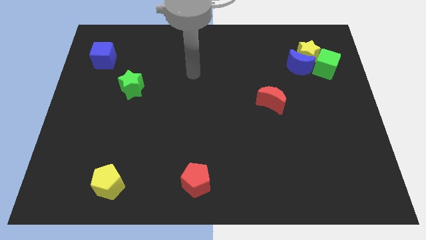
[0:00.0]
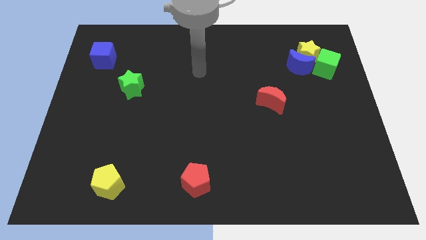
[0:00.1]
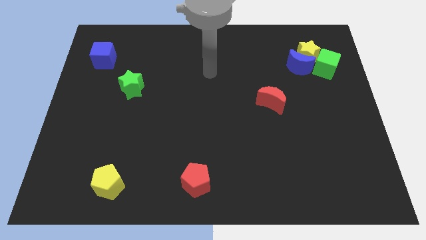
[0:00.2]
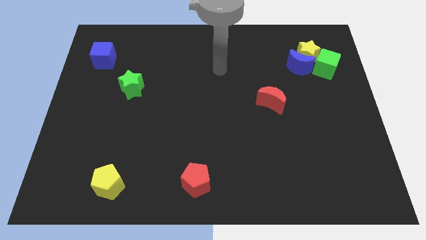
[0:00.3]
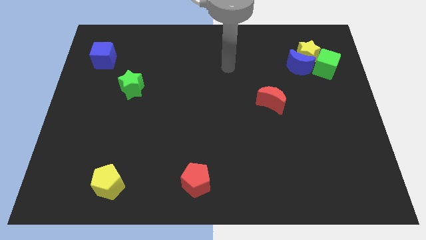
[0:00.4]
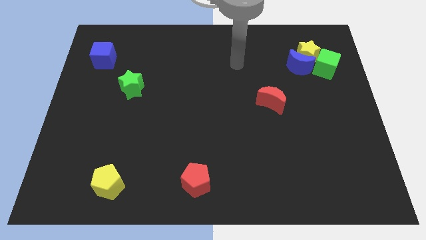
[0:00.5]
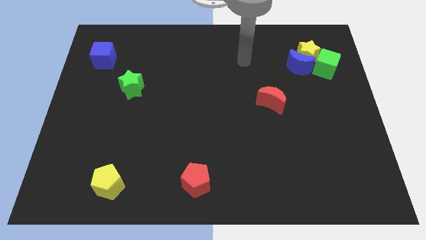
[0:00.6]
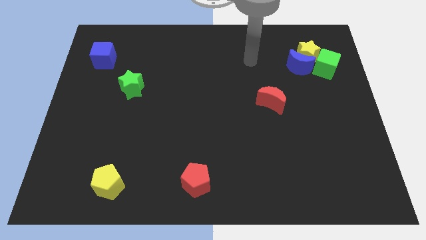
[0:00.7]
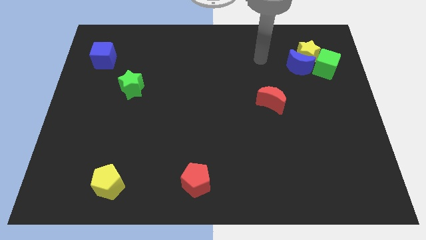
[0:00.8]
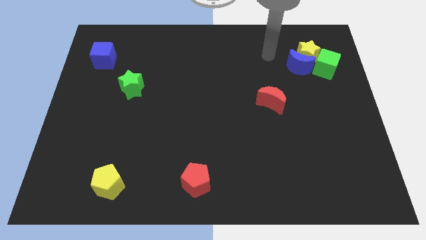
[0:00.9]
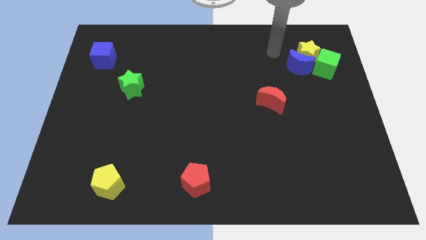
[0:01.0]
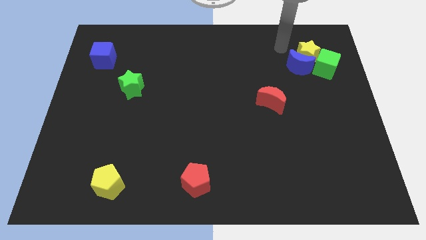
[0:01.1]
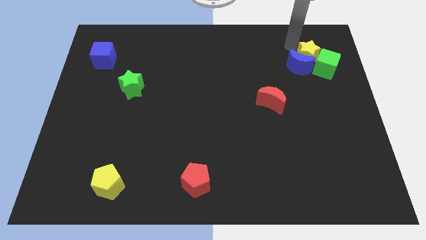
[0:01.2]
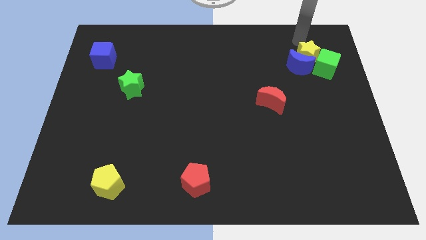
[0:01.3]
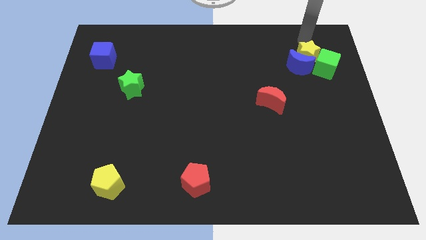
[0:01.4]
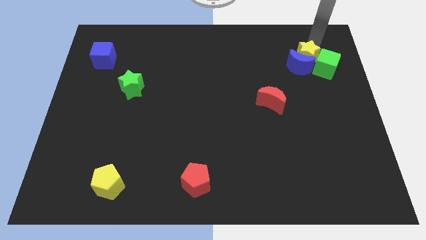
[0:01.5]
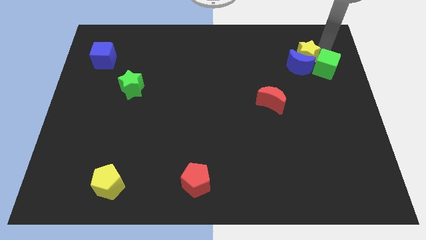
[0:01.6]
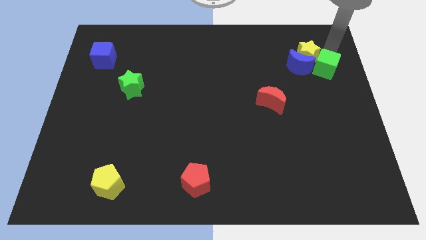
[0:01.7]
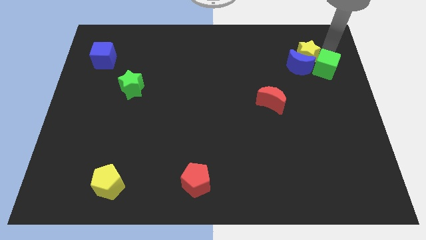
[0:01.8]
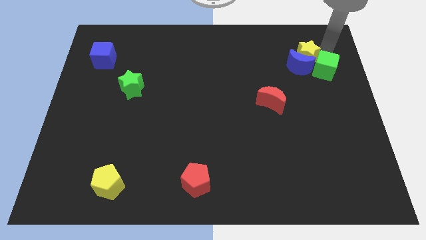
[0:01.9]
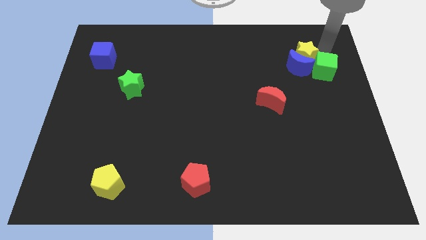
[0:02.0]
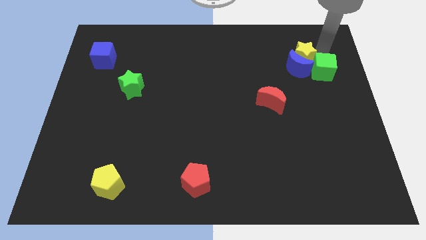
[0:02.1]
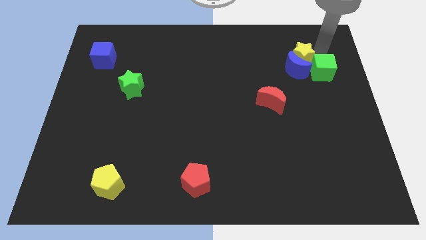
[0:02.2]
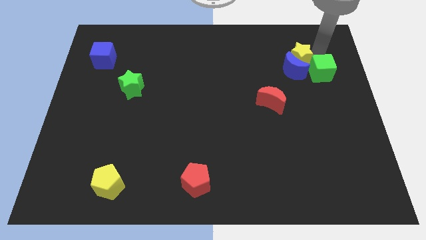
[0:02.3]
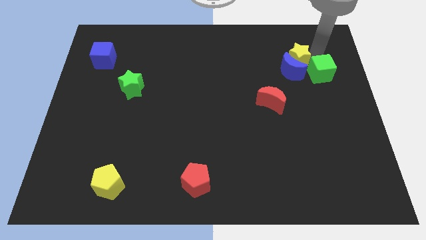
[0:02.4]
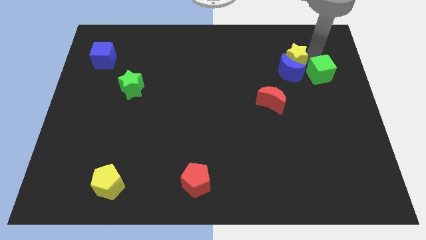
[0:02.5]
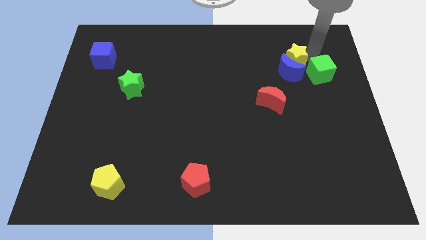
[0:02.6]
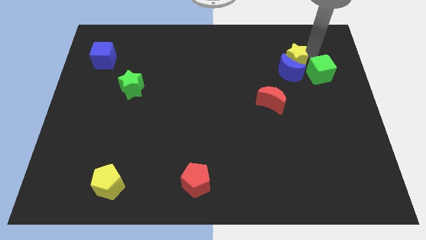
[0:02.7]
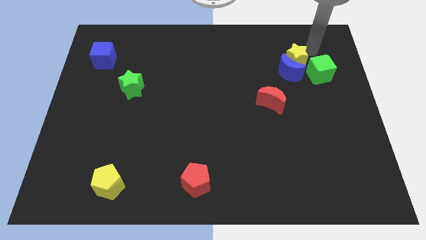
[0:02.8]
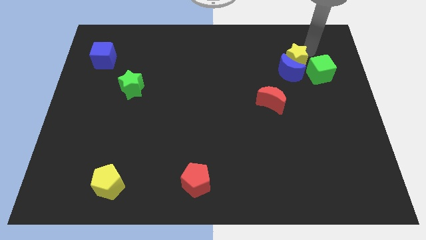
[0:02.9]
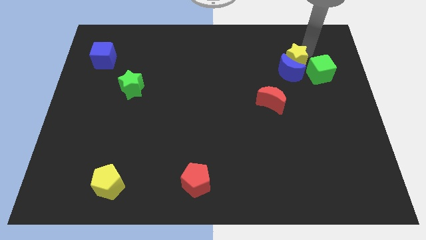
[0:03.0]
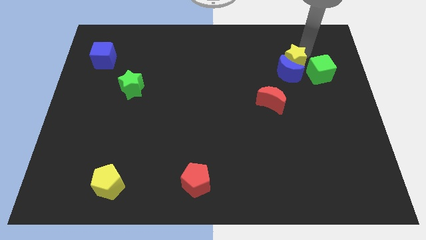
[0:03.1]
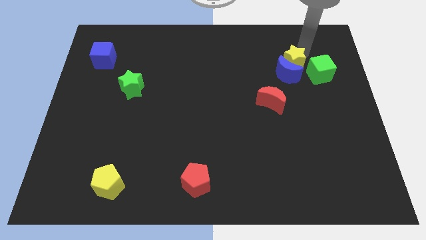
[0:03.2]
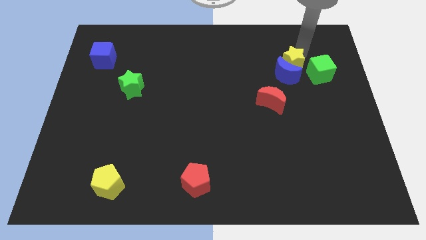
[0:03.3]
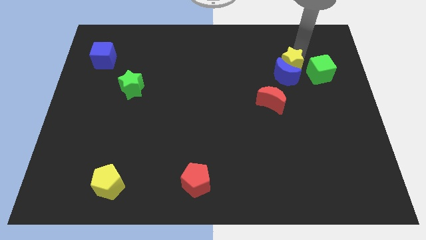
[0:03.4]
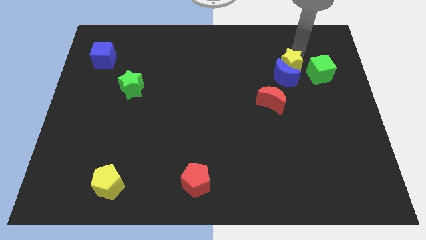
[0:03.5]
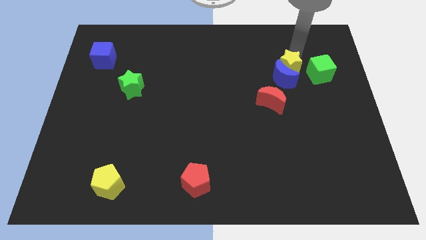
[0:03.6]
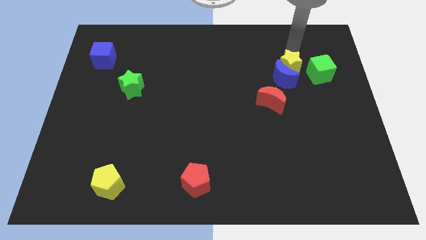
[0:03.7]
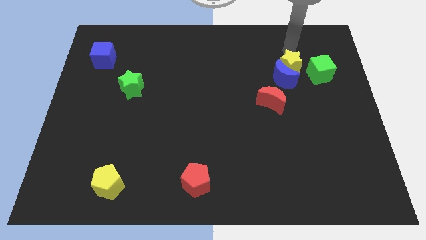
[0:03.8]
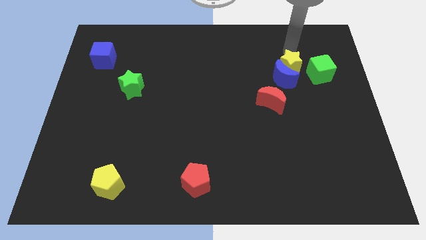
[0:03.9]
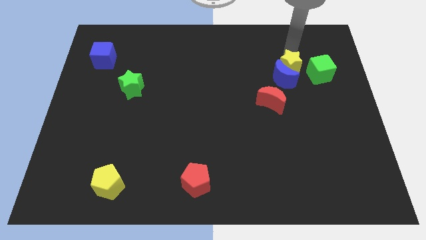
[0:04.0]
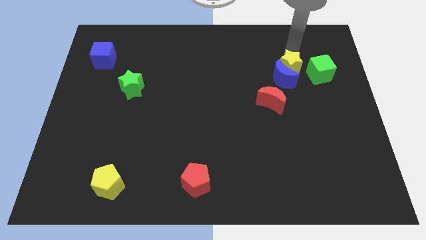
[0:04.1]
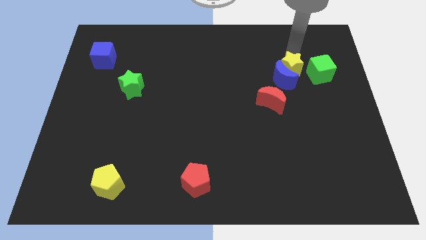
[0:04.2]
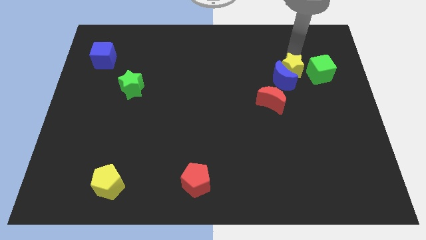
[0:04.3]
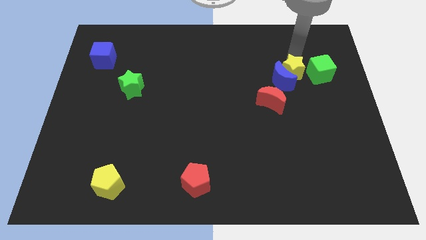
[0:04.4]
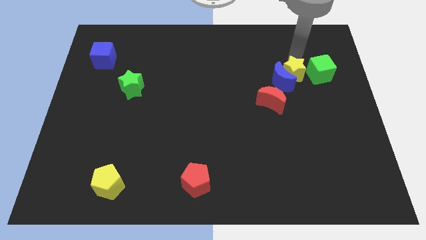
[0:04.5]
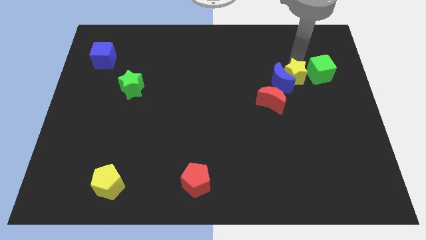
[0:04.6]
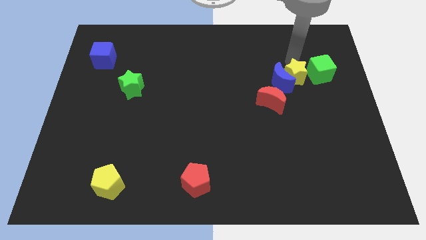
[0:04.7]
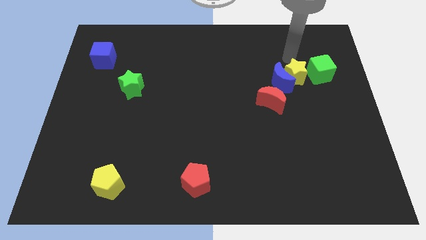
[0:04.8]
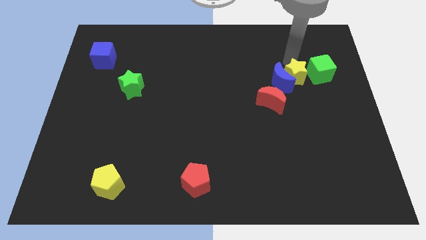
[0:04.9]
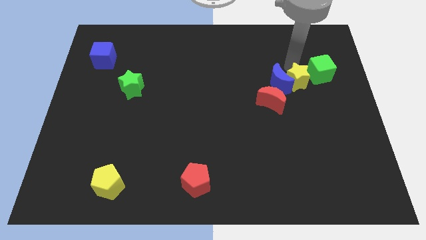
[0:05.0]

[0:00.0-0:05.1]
slightly slide the yellow star down

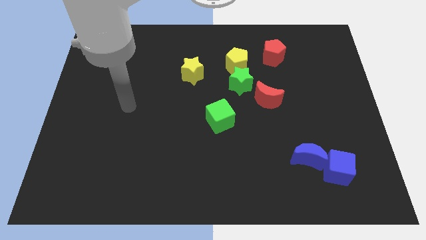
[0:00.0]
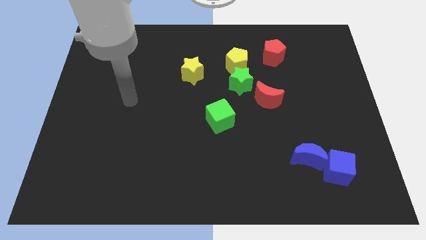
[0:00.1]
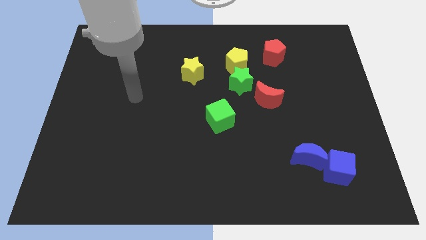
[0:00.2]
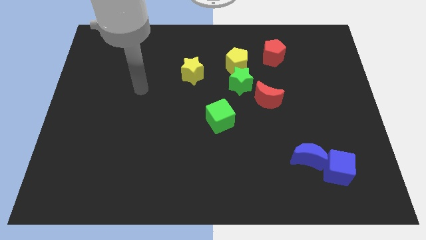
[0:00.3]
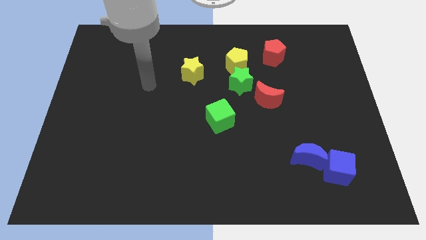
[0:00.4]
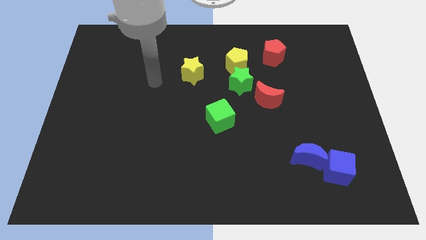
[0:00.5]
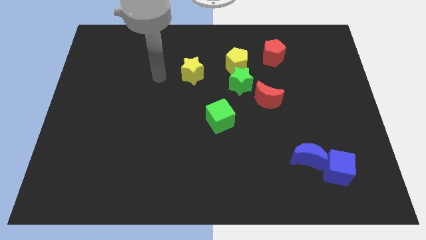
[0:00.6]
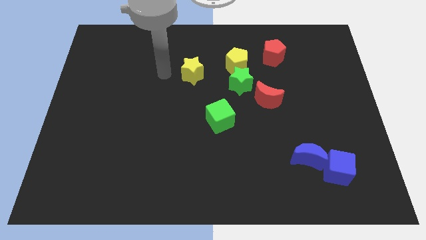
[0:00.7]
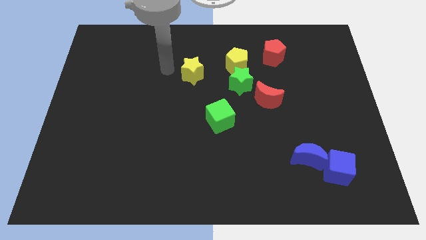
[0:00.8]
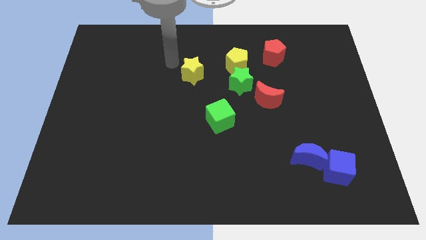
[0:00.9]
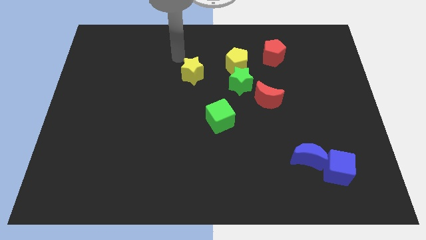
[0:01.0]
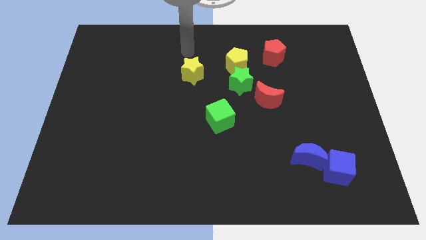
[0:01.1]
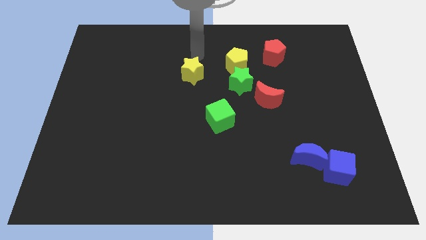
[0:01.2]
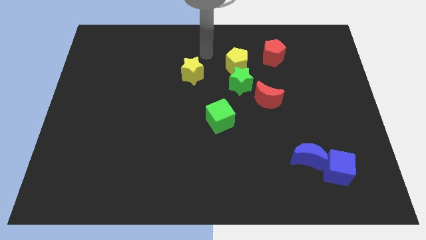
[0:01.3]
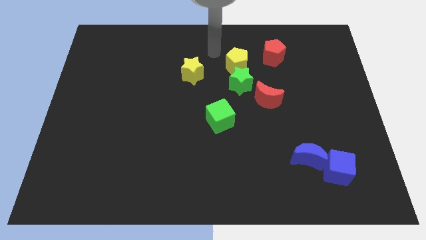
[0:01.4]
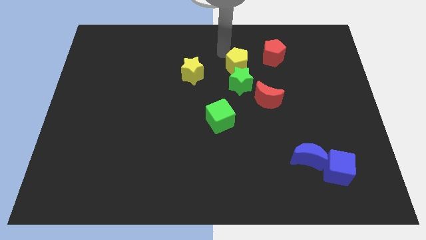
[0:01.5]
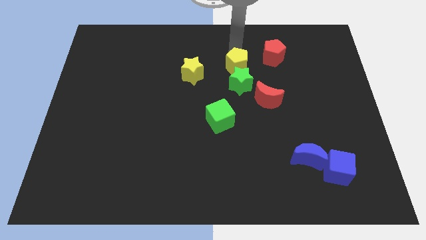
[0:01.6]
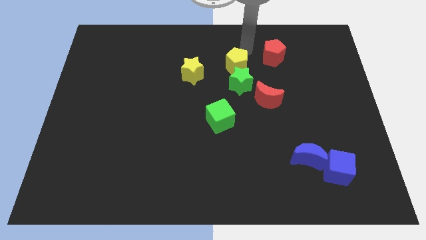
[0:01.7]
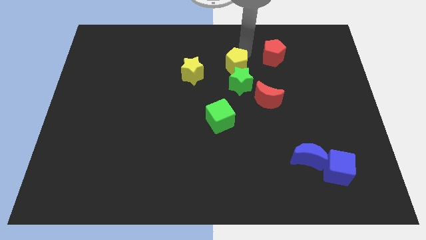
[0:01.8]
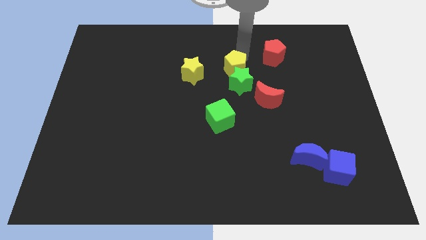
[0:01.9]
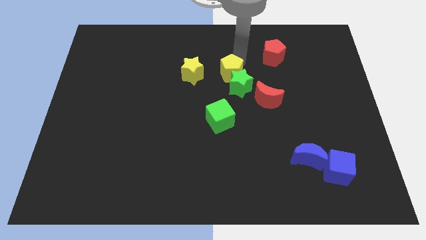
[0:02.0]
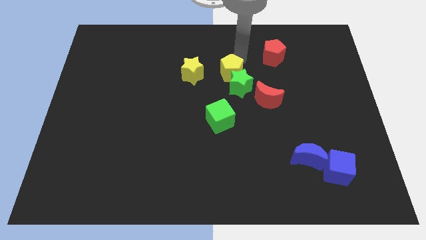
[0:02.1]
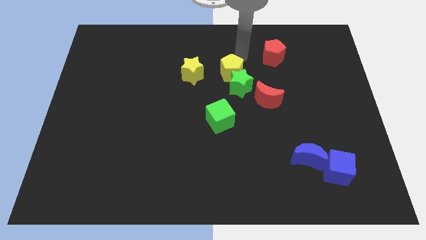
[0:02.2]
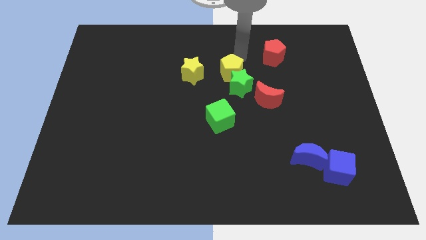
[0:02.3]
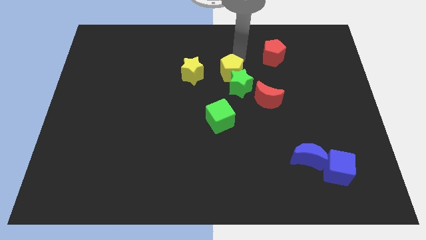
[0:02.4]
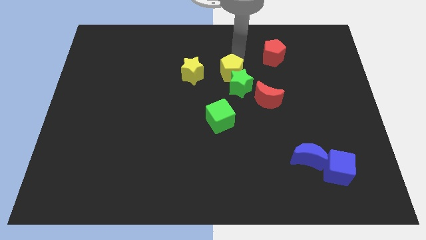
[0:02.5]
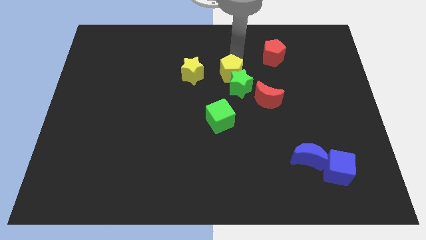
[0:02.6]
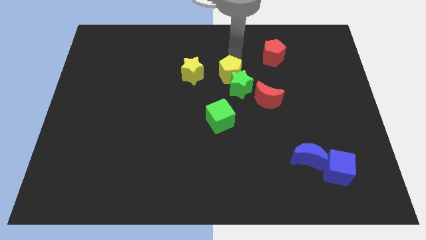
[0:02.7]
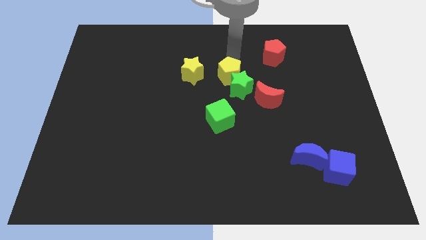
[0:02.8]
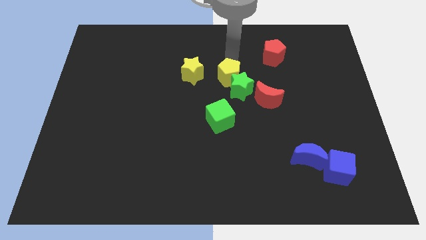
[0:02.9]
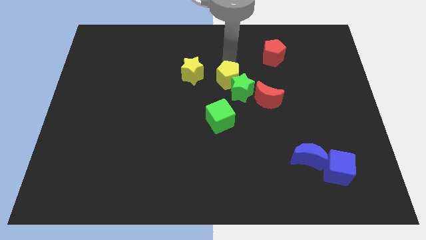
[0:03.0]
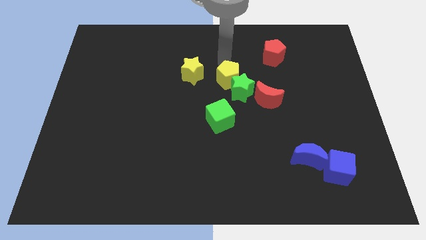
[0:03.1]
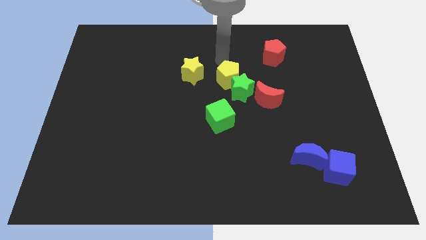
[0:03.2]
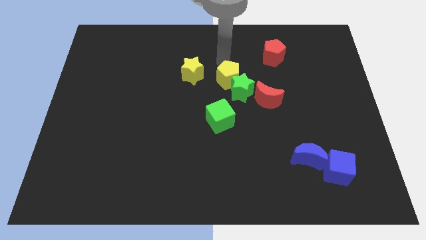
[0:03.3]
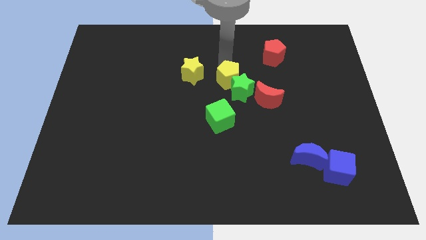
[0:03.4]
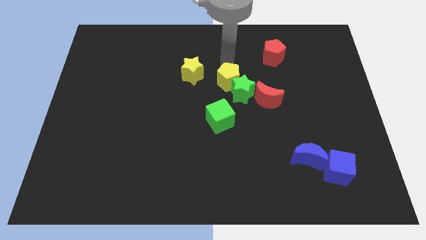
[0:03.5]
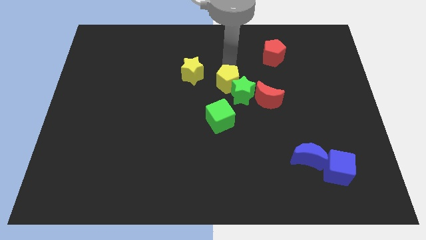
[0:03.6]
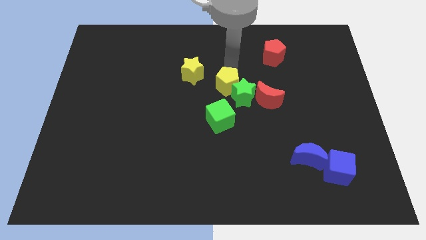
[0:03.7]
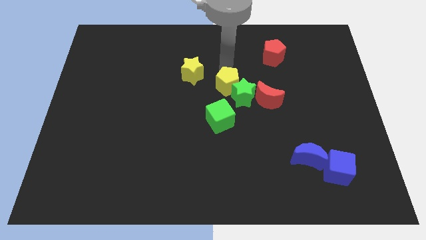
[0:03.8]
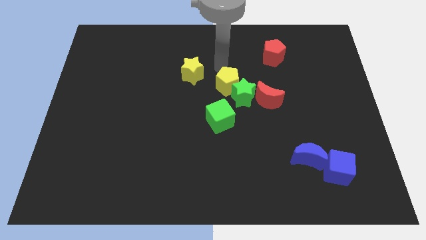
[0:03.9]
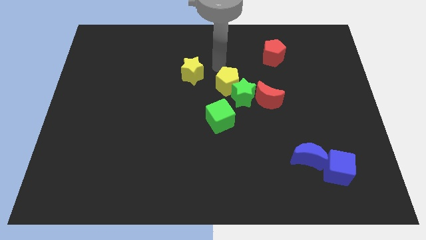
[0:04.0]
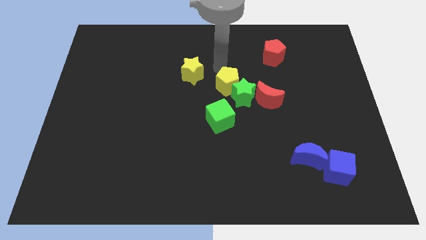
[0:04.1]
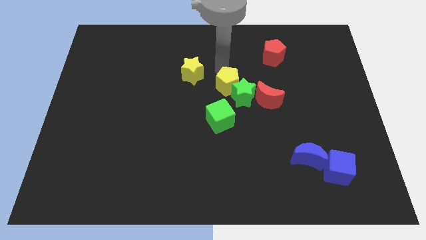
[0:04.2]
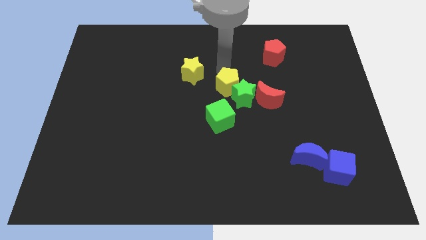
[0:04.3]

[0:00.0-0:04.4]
push the yellow pentagon downwards a bit
